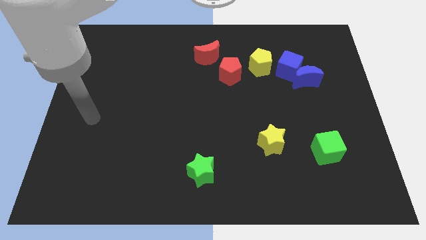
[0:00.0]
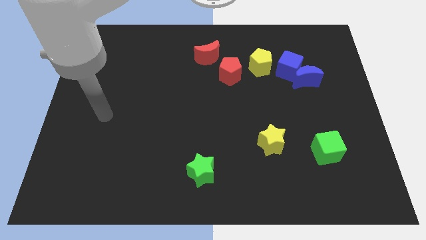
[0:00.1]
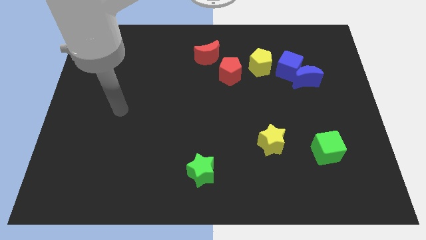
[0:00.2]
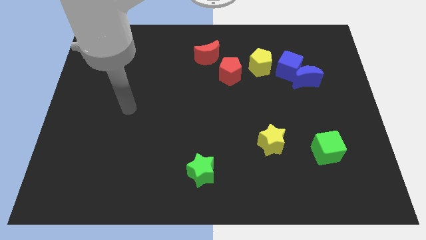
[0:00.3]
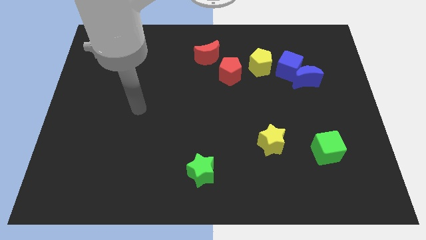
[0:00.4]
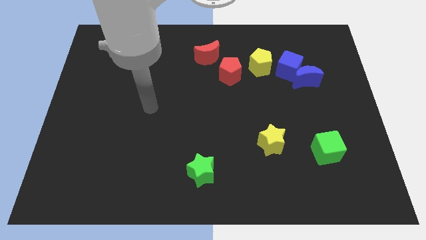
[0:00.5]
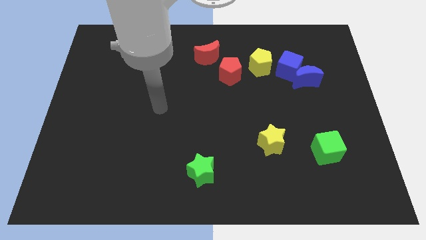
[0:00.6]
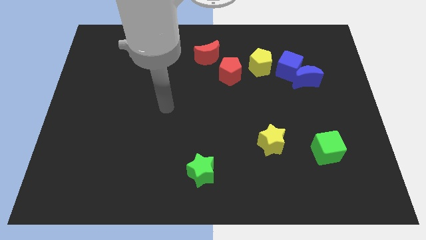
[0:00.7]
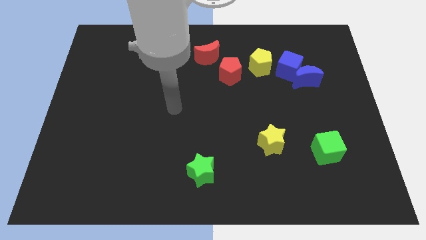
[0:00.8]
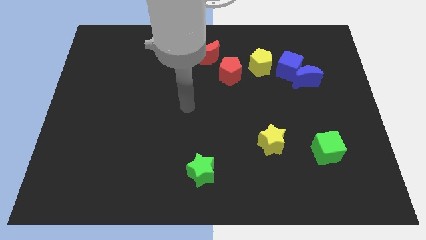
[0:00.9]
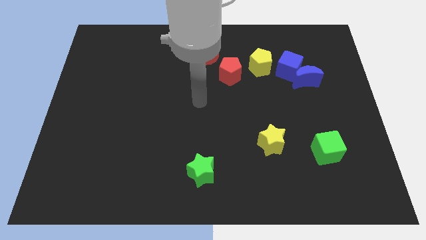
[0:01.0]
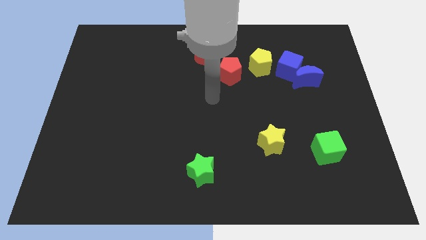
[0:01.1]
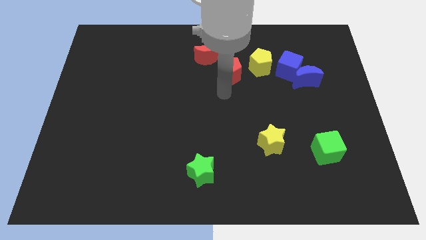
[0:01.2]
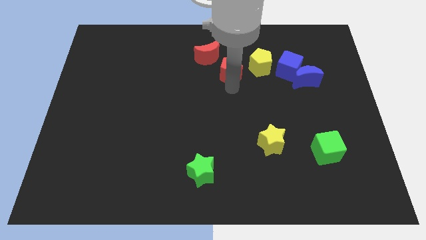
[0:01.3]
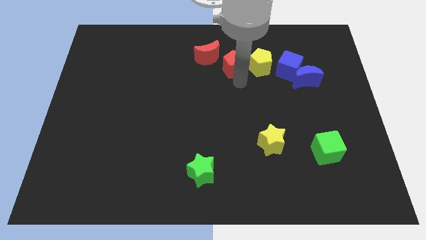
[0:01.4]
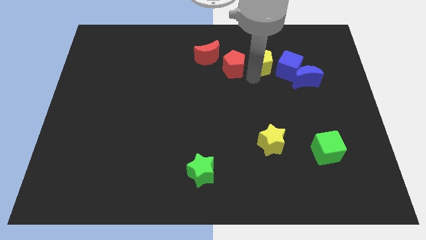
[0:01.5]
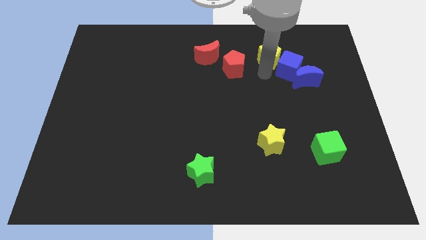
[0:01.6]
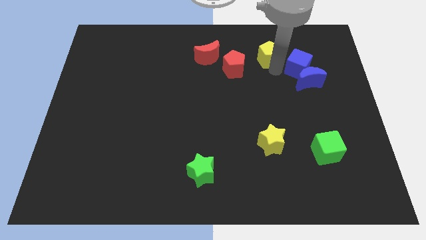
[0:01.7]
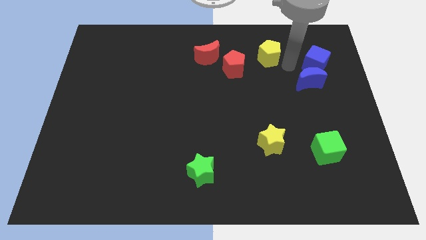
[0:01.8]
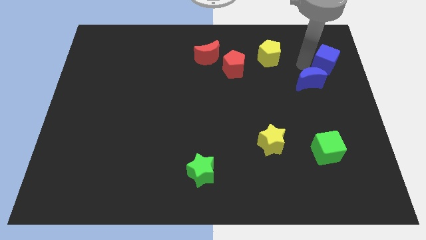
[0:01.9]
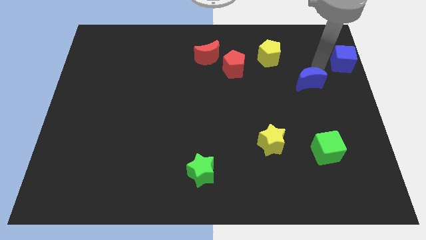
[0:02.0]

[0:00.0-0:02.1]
pull the blue moon apart from the blue cube

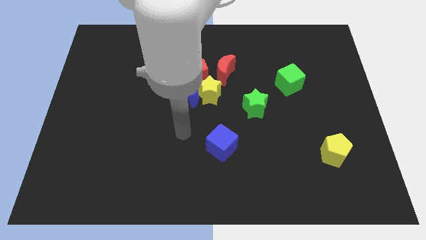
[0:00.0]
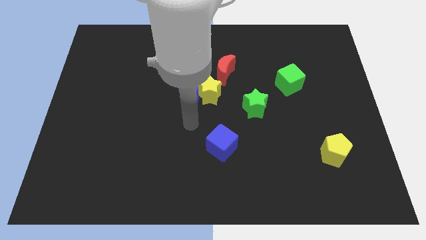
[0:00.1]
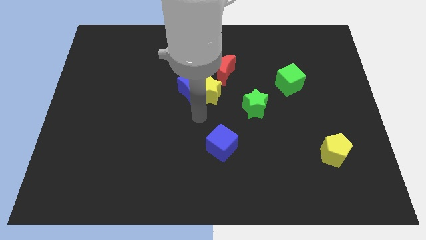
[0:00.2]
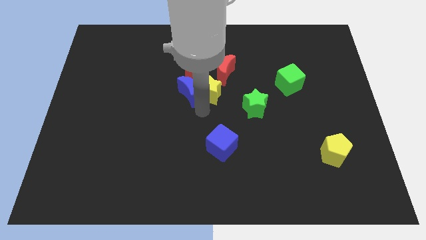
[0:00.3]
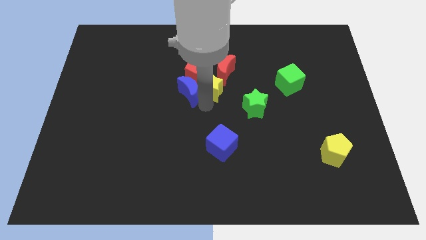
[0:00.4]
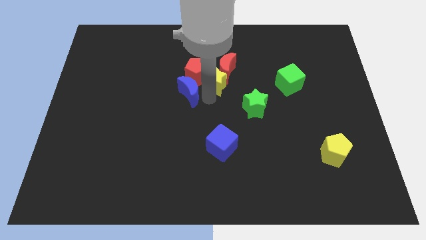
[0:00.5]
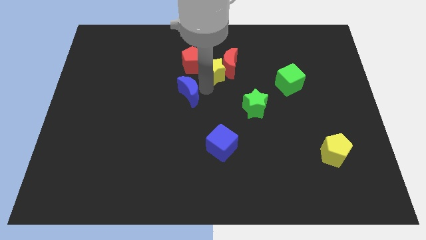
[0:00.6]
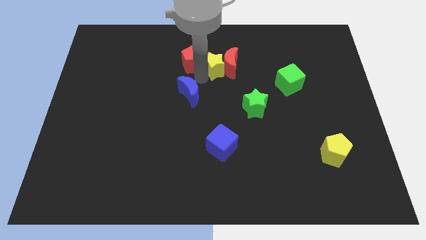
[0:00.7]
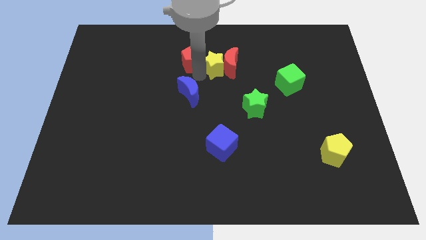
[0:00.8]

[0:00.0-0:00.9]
move the blue moon away from the yellow star and red pentagon

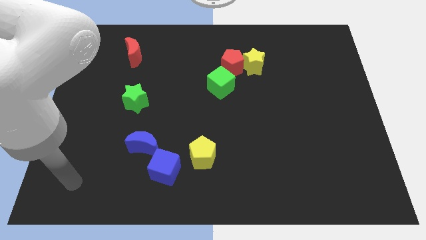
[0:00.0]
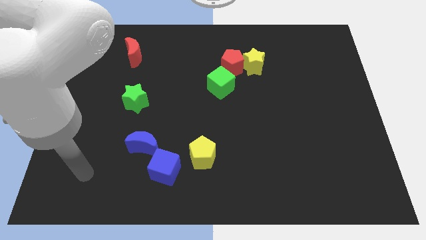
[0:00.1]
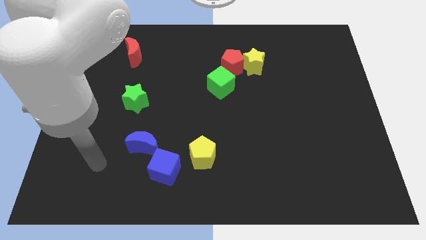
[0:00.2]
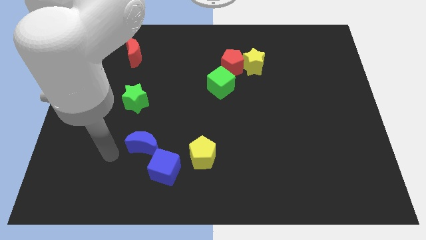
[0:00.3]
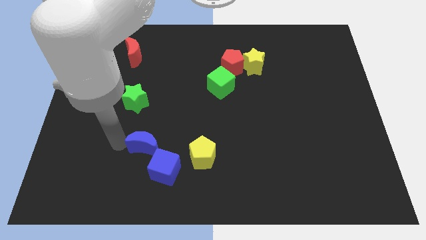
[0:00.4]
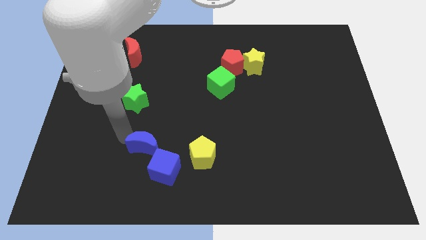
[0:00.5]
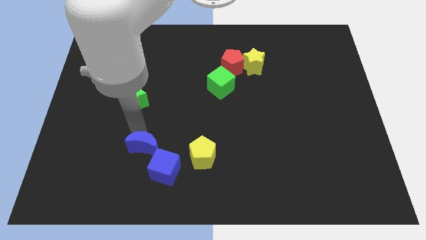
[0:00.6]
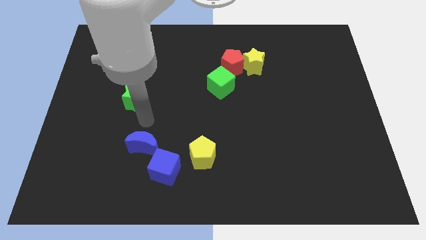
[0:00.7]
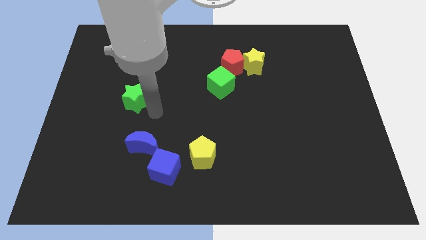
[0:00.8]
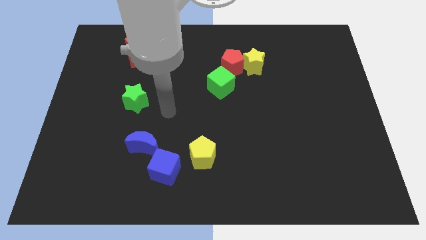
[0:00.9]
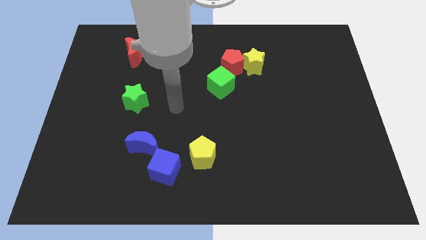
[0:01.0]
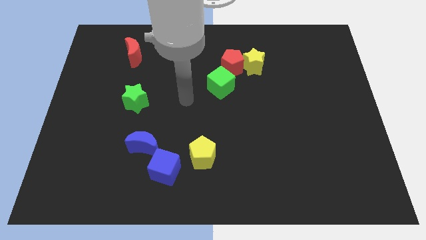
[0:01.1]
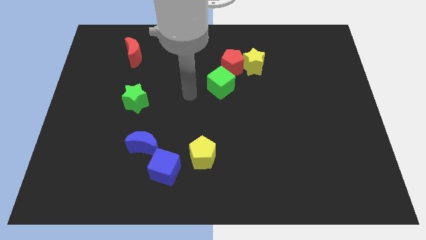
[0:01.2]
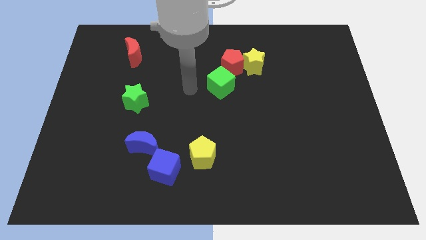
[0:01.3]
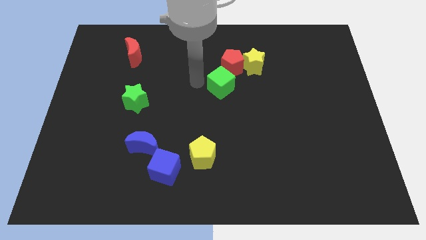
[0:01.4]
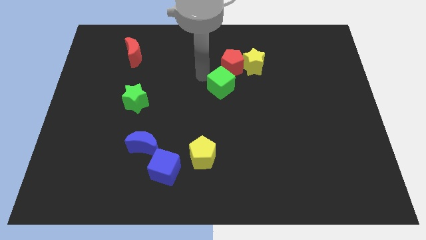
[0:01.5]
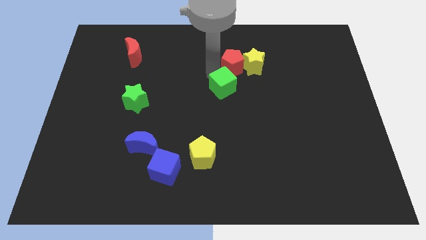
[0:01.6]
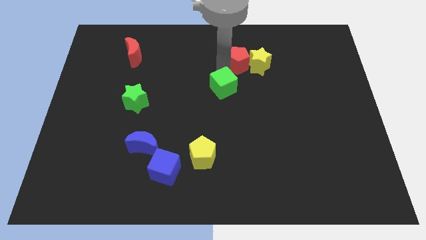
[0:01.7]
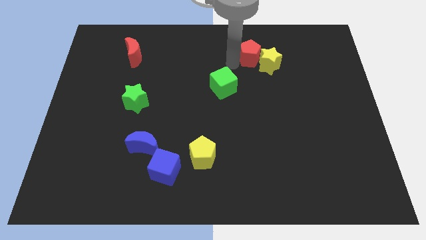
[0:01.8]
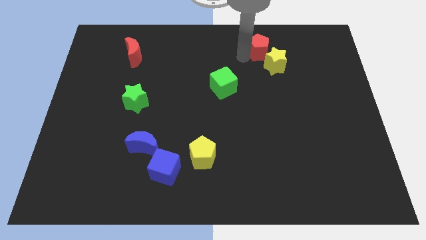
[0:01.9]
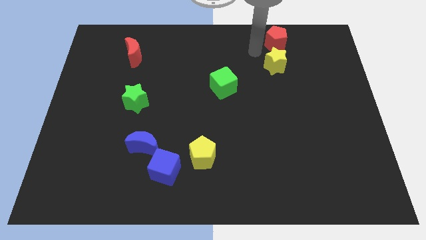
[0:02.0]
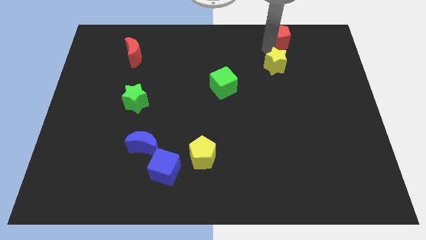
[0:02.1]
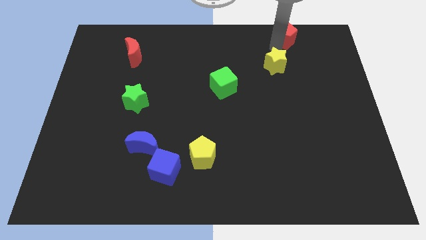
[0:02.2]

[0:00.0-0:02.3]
move the yellow star away from the red pentagon

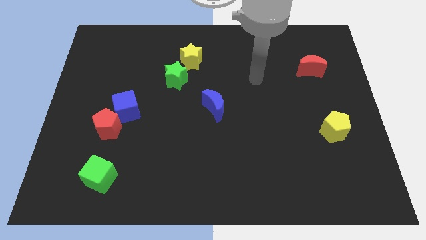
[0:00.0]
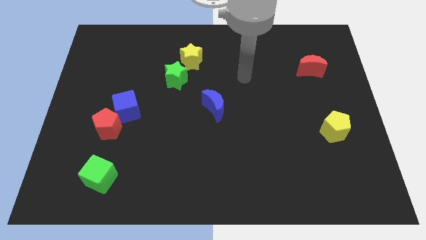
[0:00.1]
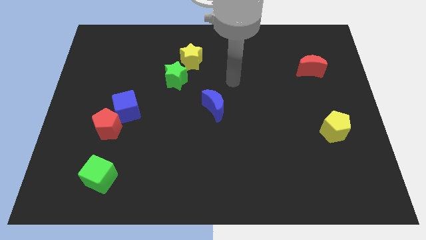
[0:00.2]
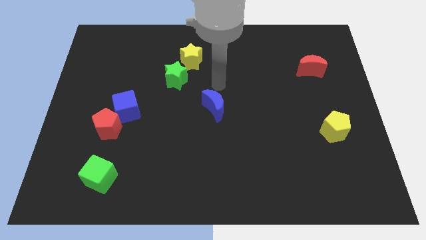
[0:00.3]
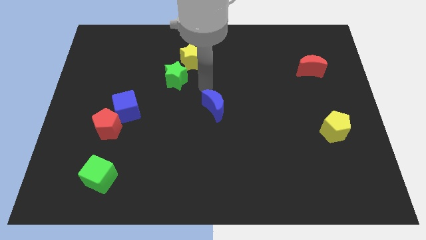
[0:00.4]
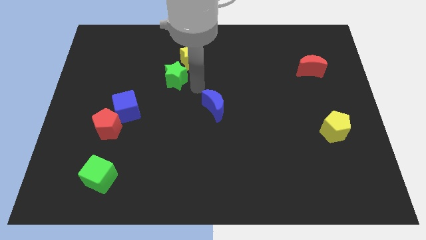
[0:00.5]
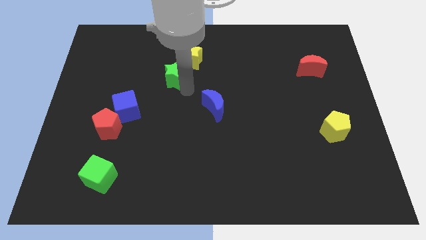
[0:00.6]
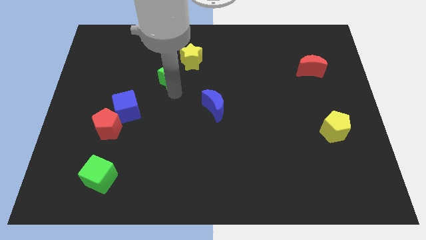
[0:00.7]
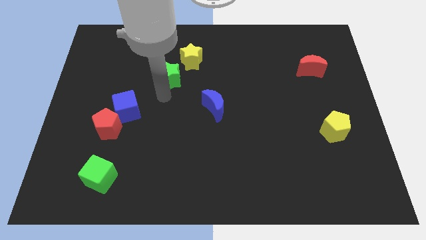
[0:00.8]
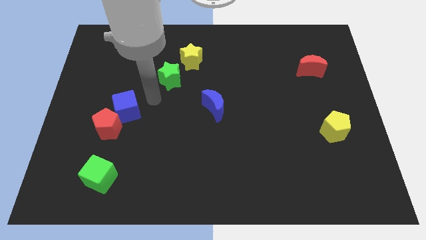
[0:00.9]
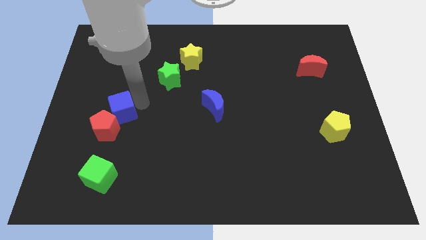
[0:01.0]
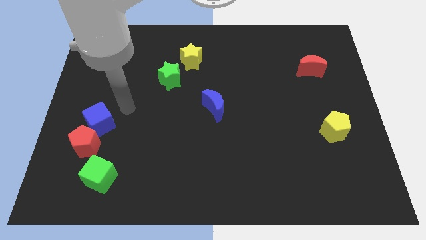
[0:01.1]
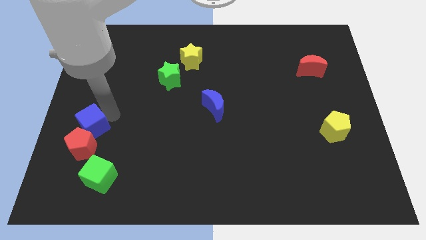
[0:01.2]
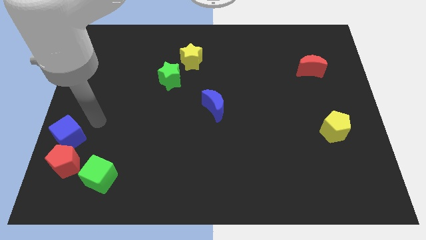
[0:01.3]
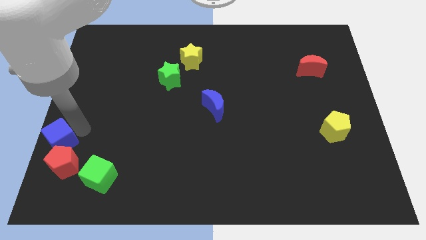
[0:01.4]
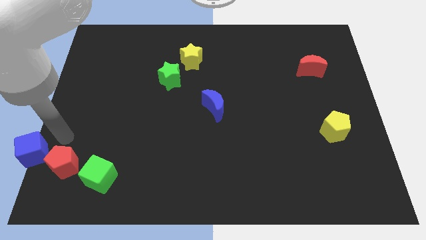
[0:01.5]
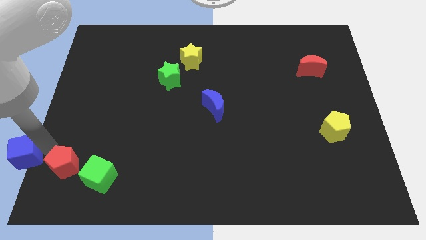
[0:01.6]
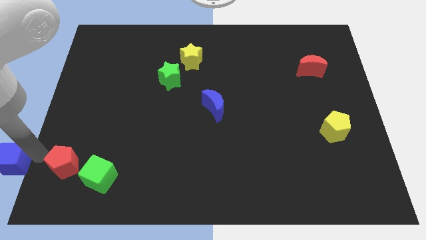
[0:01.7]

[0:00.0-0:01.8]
move the red pentagon away from the blue cube

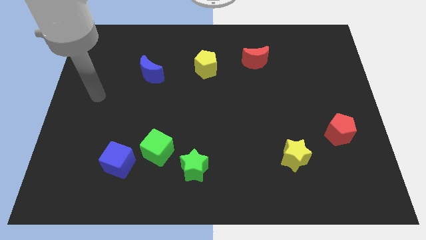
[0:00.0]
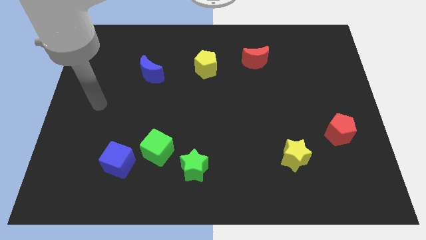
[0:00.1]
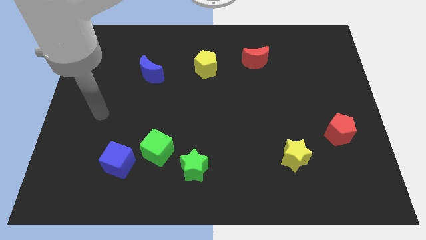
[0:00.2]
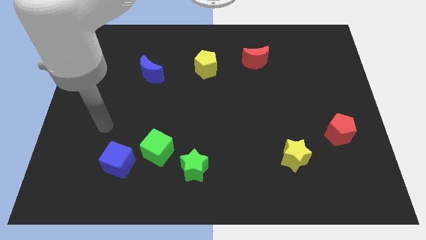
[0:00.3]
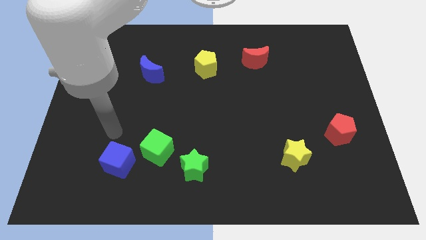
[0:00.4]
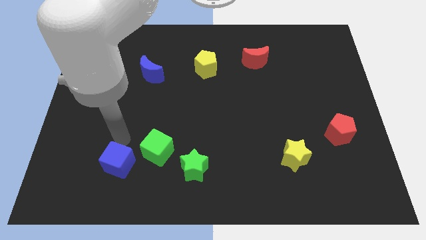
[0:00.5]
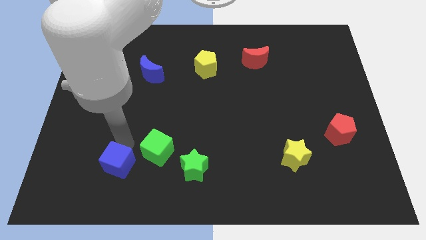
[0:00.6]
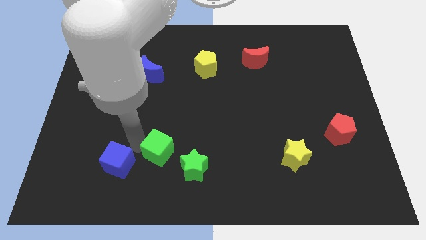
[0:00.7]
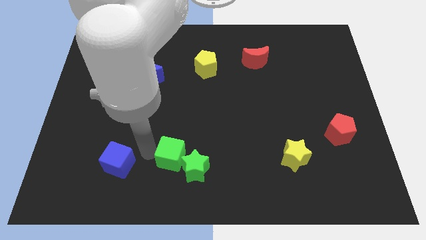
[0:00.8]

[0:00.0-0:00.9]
pull the blue cube apart from the green cube

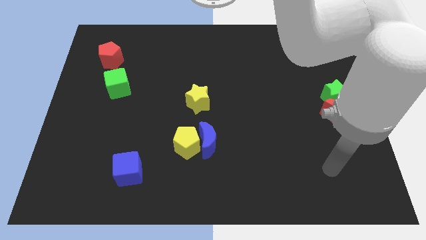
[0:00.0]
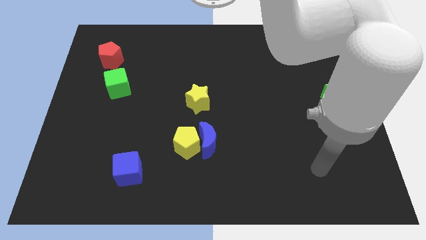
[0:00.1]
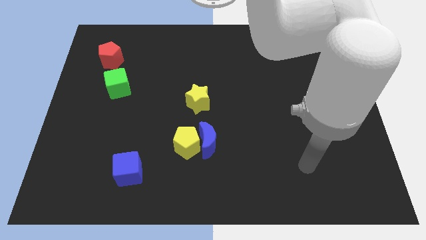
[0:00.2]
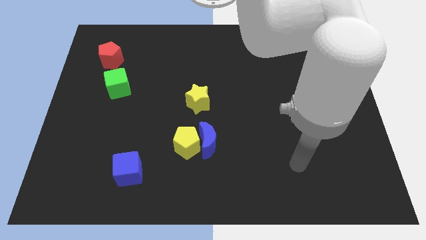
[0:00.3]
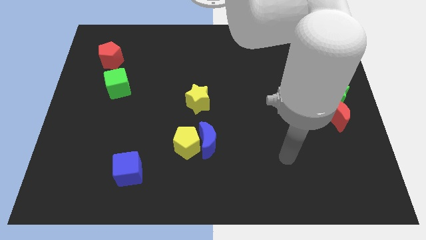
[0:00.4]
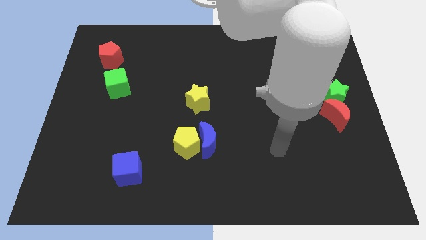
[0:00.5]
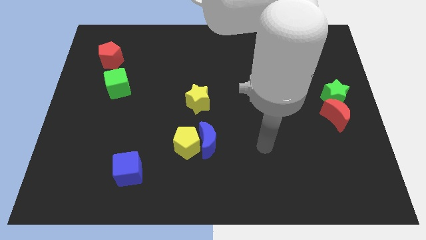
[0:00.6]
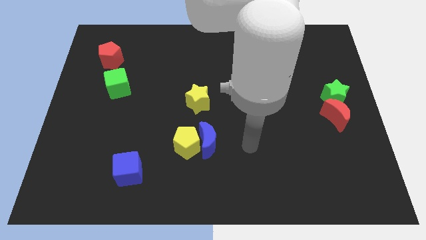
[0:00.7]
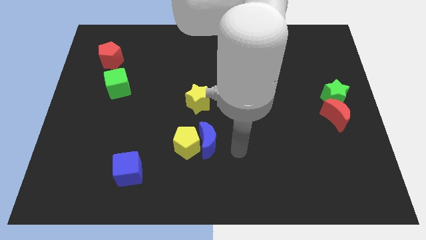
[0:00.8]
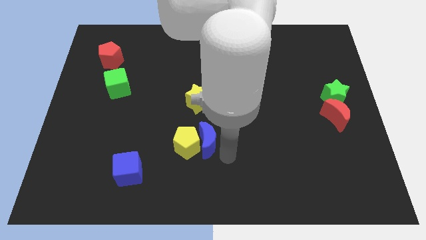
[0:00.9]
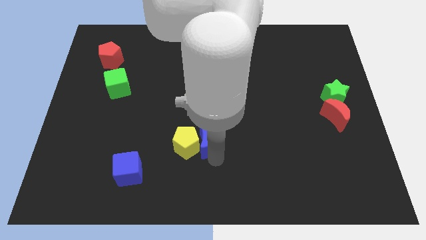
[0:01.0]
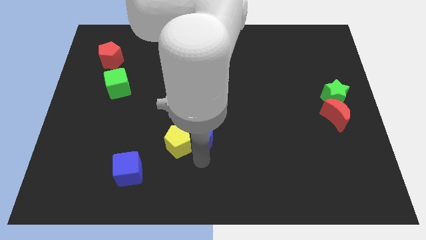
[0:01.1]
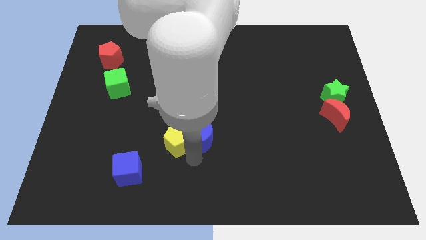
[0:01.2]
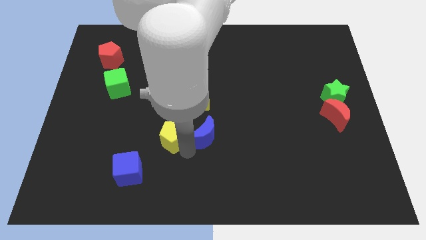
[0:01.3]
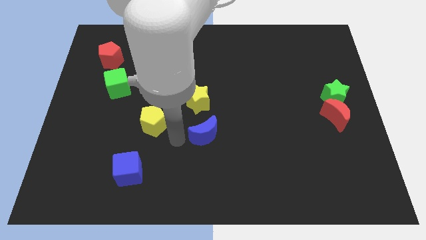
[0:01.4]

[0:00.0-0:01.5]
separate the blue moon from the yellow pentagon
